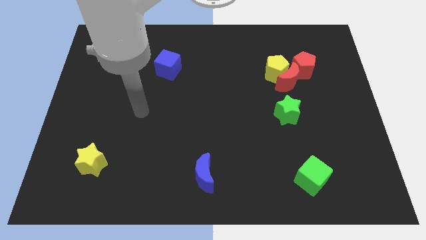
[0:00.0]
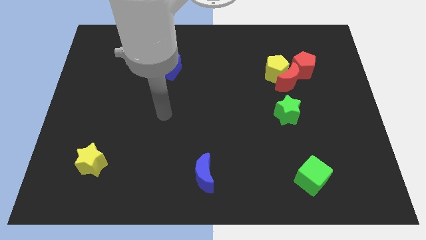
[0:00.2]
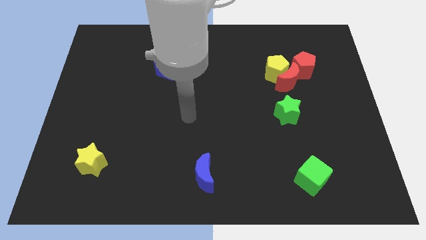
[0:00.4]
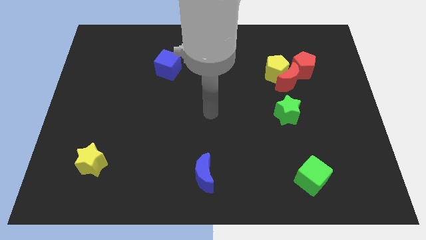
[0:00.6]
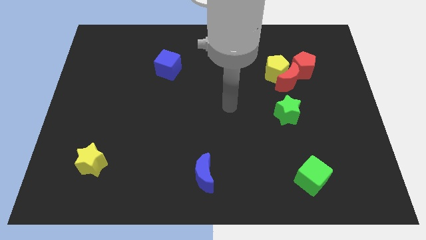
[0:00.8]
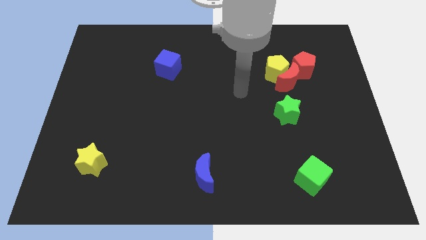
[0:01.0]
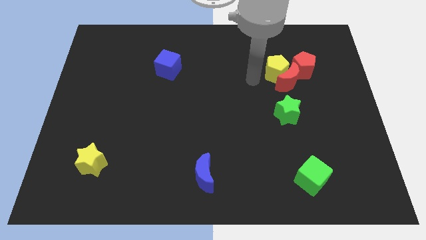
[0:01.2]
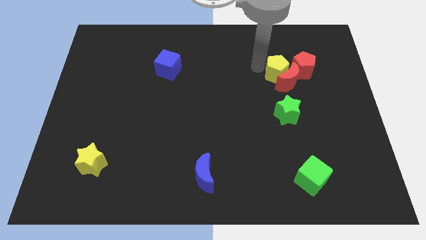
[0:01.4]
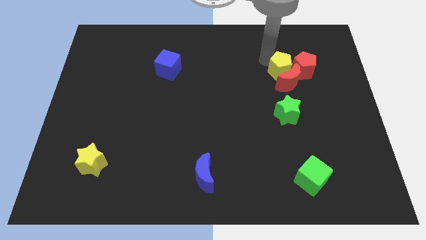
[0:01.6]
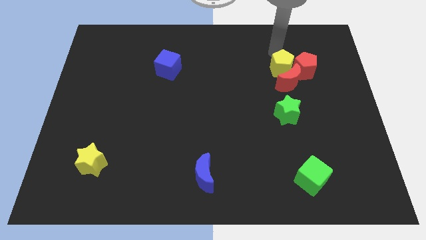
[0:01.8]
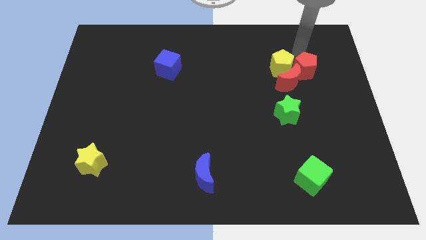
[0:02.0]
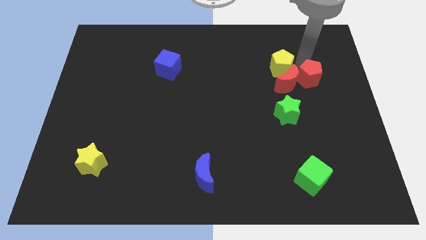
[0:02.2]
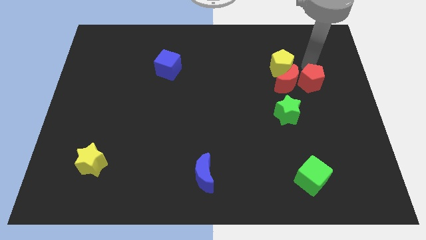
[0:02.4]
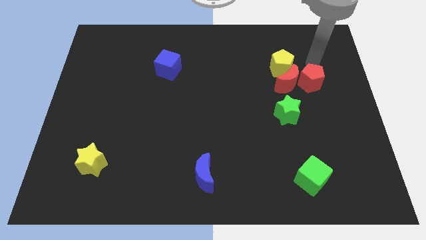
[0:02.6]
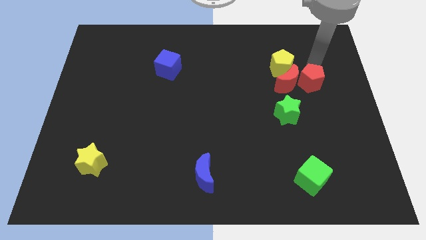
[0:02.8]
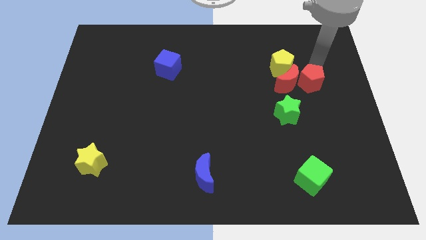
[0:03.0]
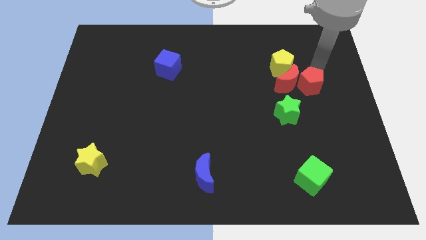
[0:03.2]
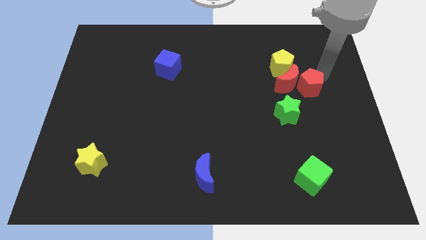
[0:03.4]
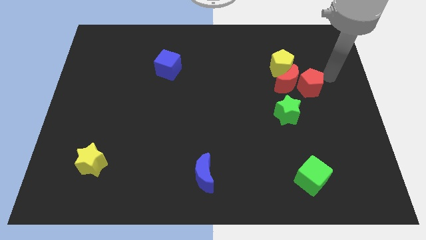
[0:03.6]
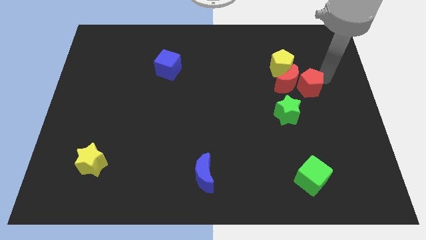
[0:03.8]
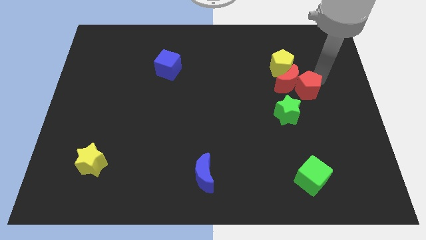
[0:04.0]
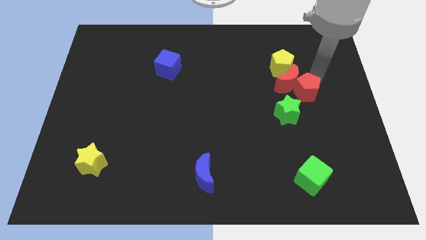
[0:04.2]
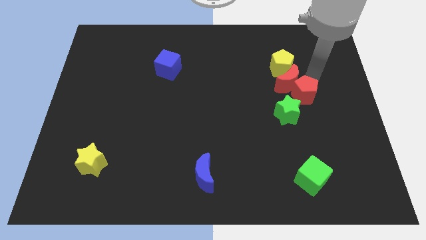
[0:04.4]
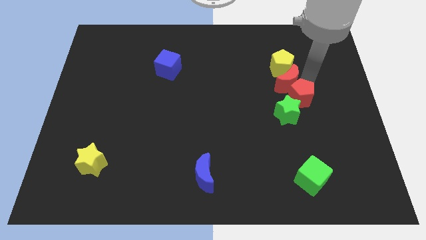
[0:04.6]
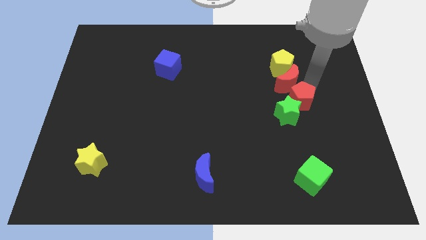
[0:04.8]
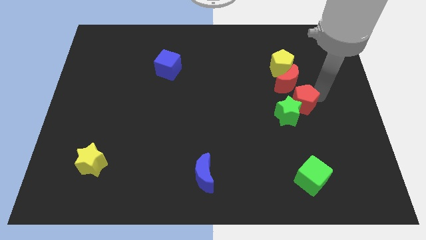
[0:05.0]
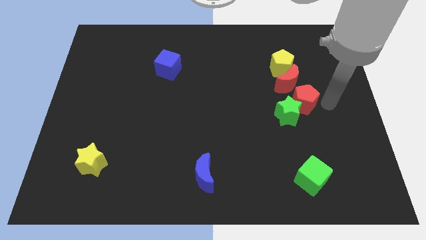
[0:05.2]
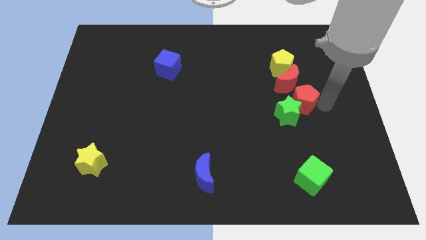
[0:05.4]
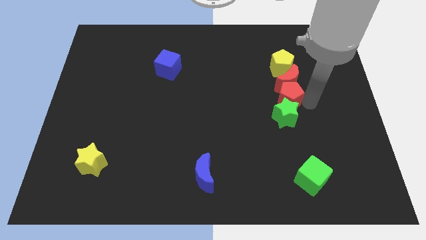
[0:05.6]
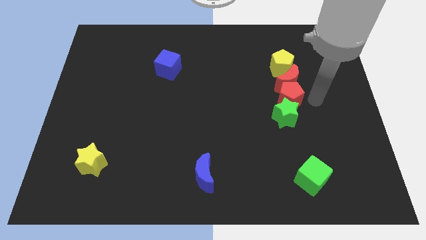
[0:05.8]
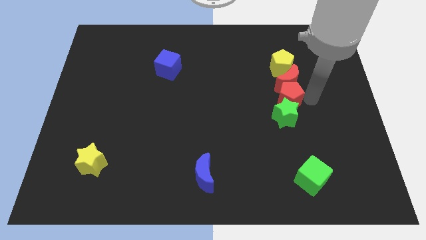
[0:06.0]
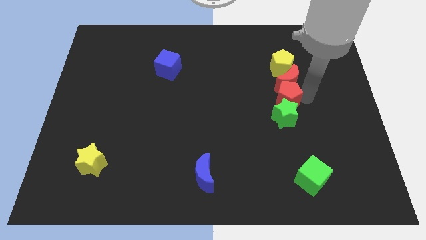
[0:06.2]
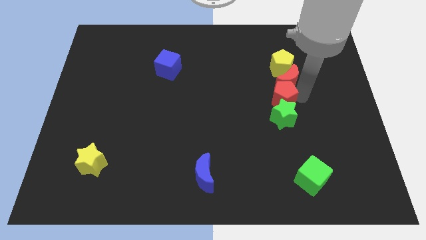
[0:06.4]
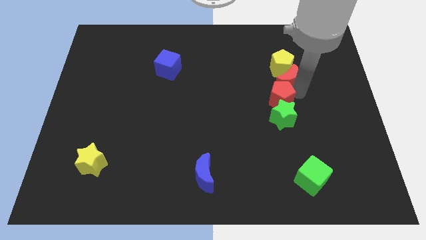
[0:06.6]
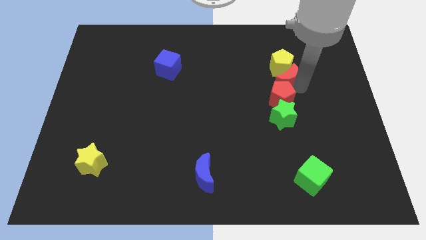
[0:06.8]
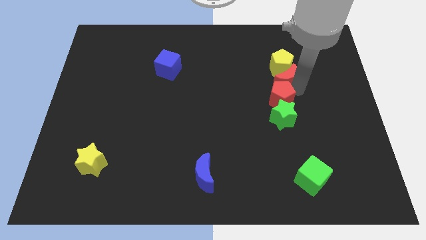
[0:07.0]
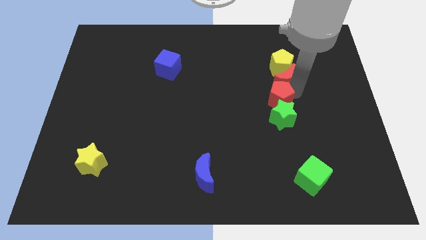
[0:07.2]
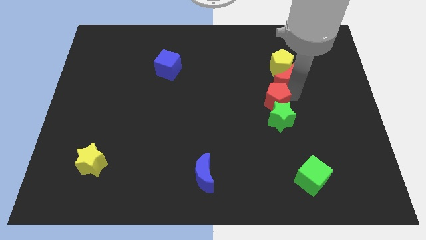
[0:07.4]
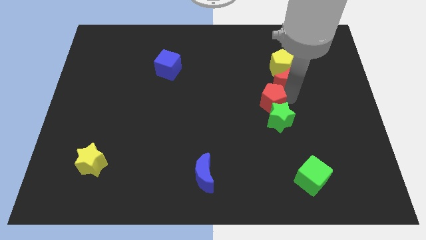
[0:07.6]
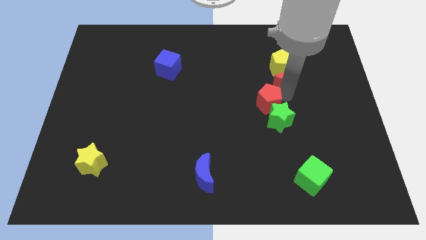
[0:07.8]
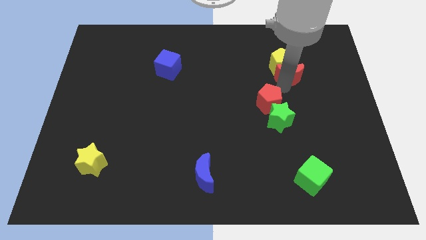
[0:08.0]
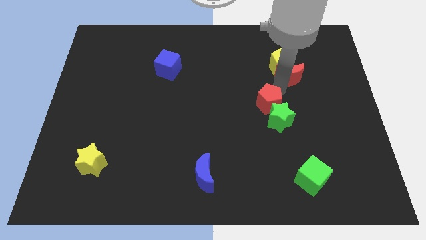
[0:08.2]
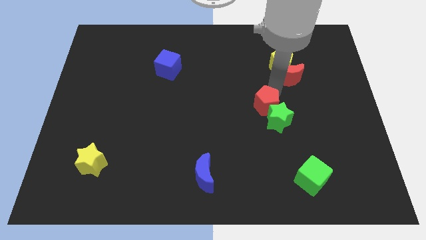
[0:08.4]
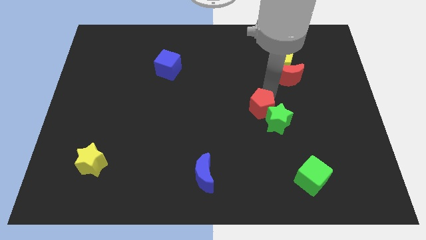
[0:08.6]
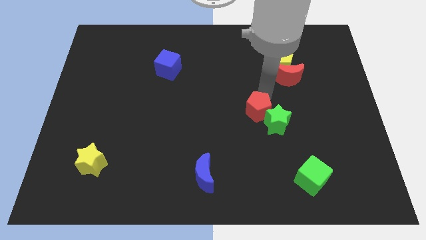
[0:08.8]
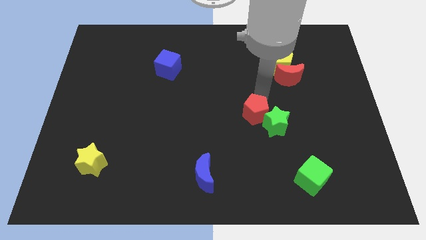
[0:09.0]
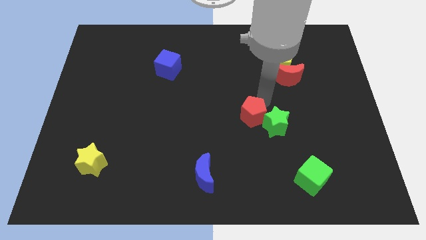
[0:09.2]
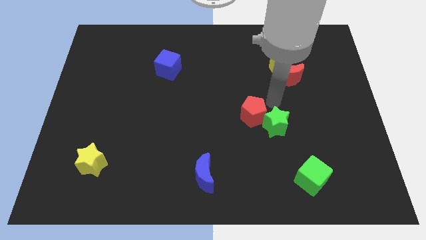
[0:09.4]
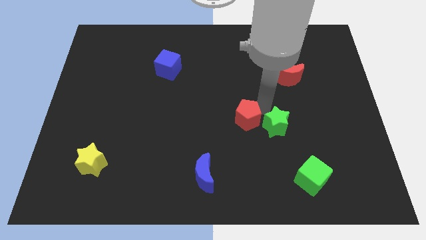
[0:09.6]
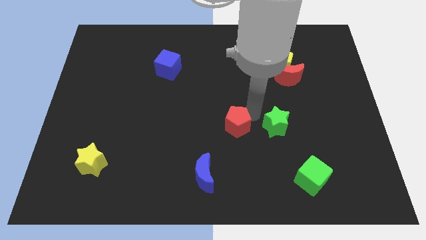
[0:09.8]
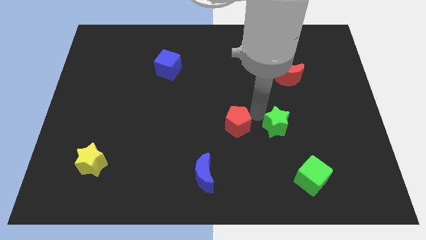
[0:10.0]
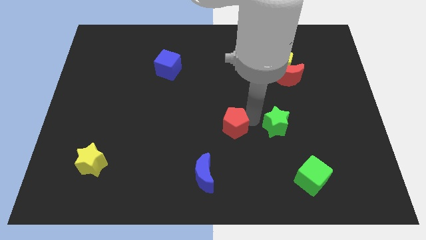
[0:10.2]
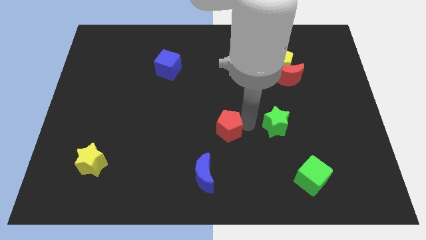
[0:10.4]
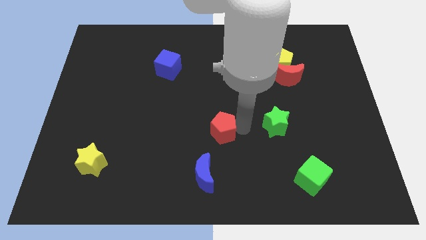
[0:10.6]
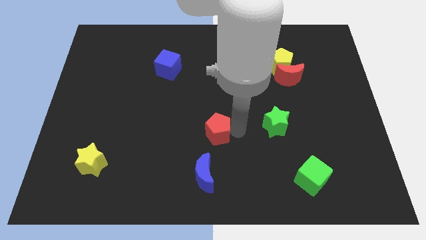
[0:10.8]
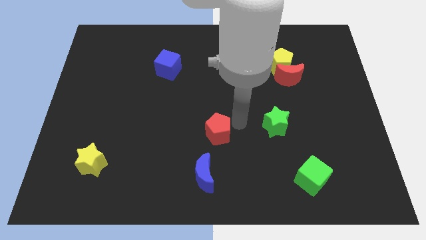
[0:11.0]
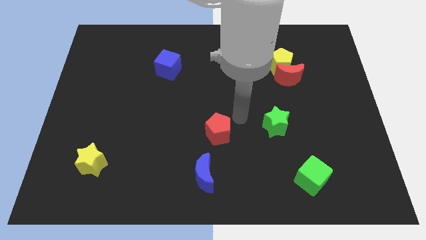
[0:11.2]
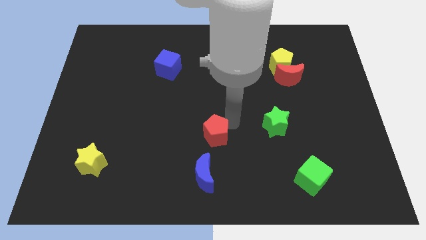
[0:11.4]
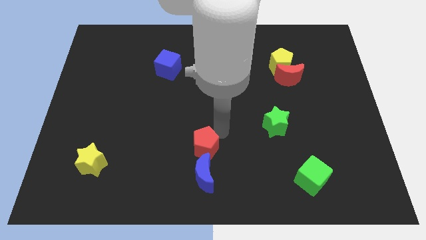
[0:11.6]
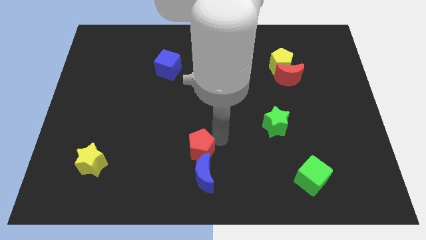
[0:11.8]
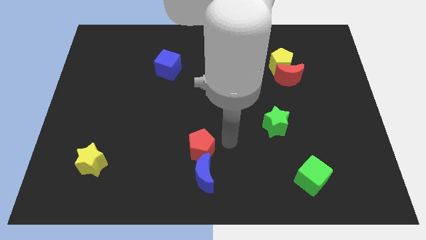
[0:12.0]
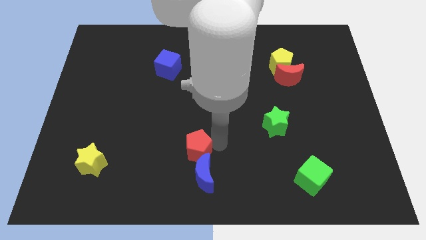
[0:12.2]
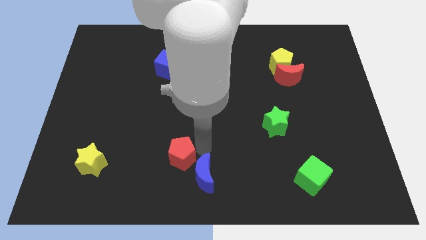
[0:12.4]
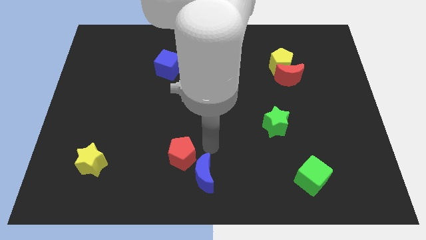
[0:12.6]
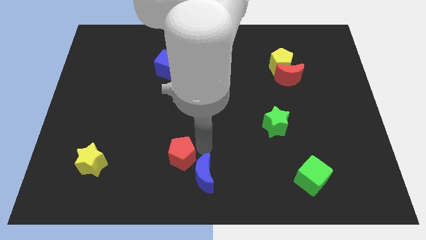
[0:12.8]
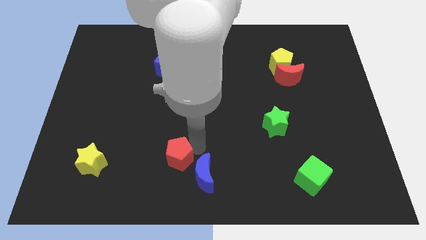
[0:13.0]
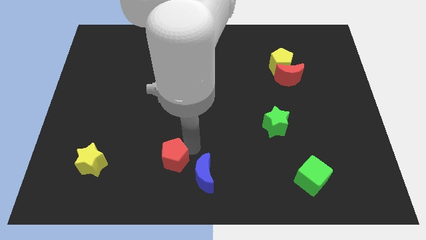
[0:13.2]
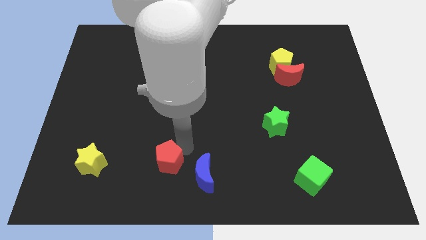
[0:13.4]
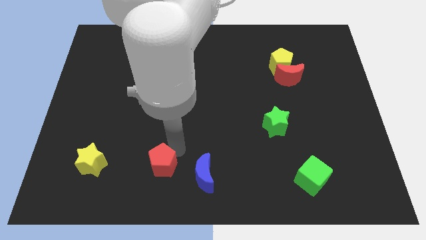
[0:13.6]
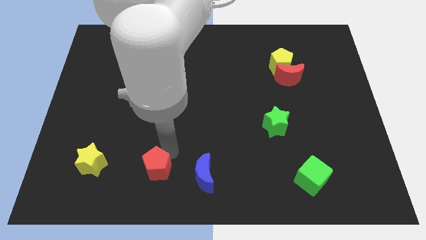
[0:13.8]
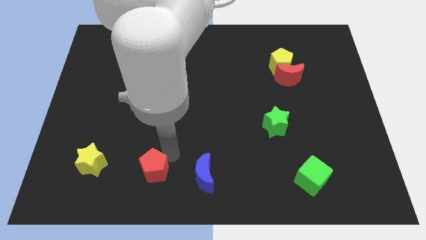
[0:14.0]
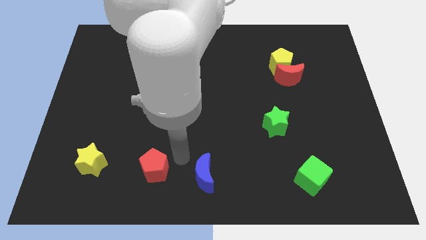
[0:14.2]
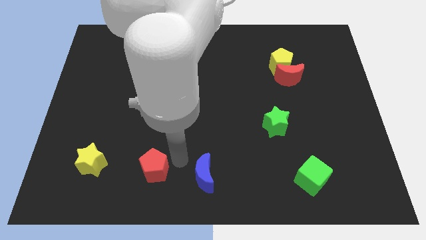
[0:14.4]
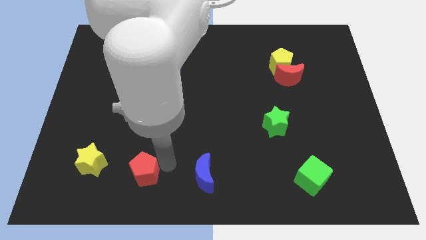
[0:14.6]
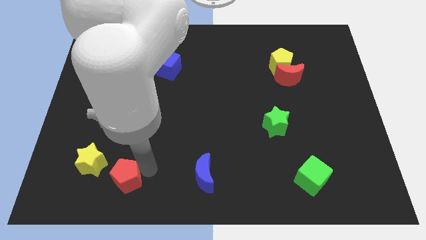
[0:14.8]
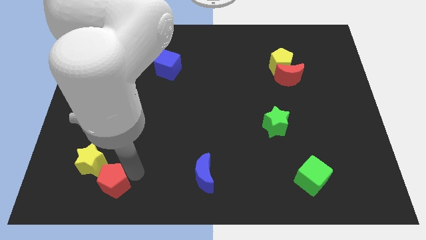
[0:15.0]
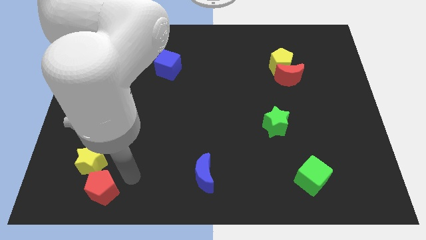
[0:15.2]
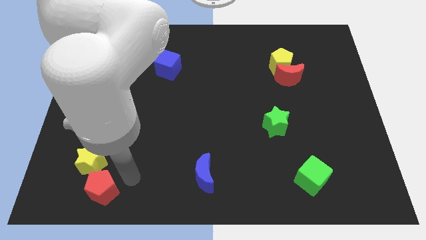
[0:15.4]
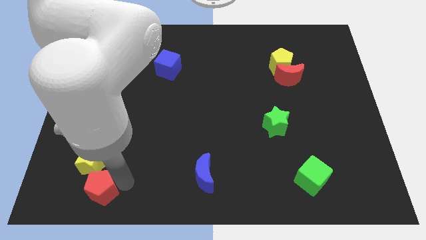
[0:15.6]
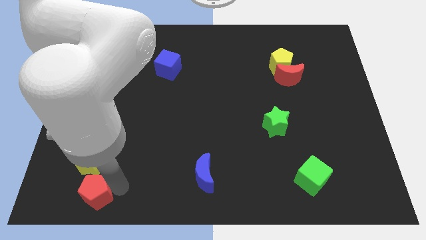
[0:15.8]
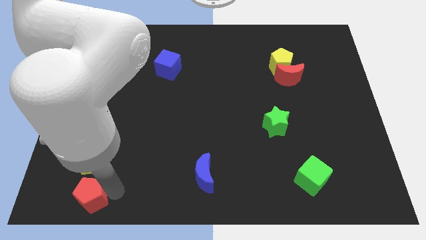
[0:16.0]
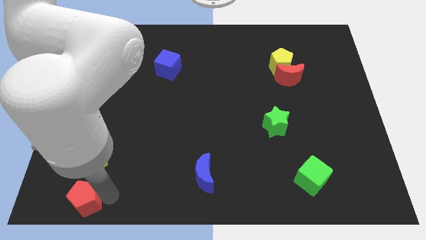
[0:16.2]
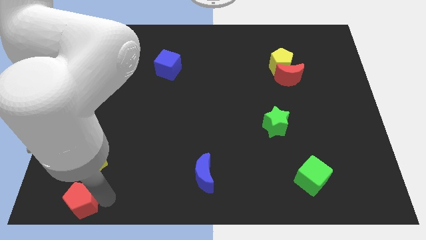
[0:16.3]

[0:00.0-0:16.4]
move the red pentagon to the bottom left of the board
